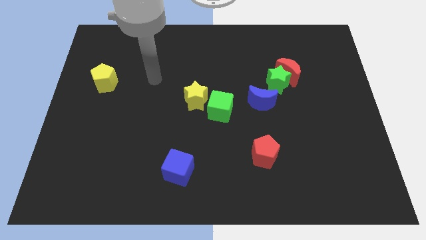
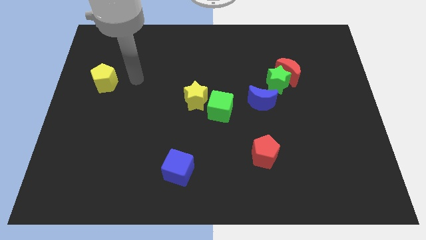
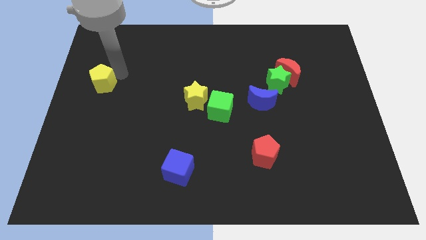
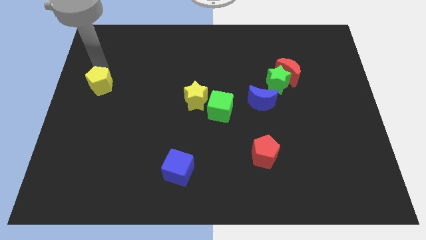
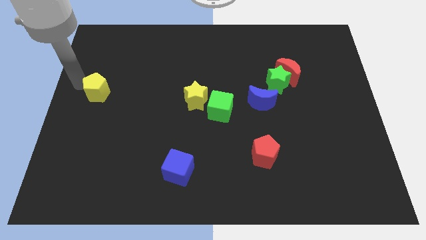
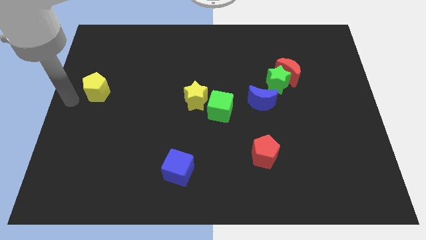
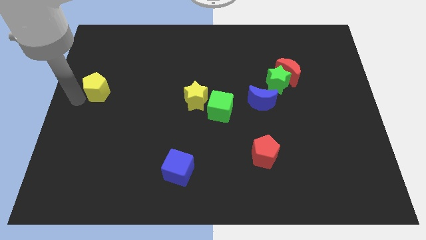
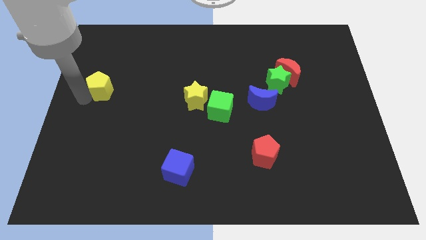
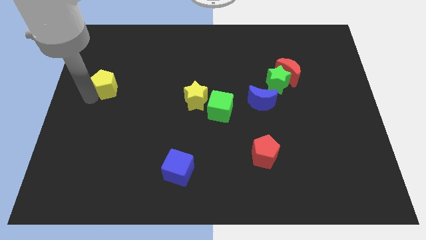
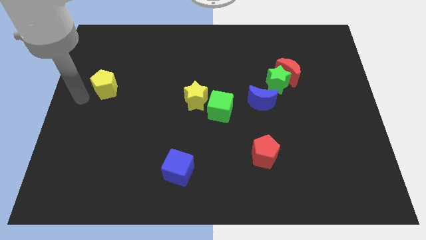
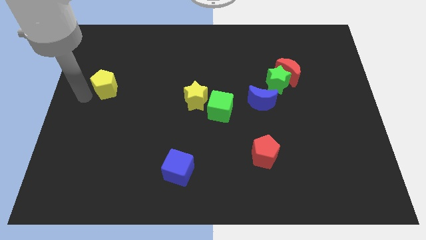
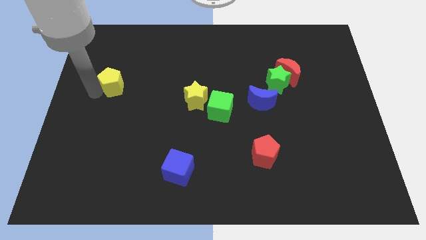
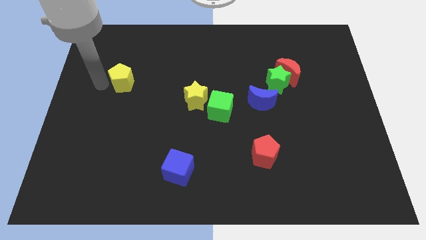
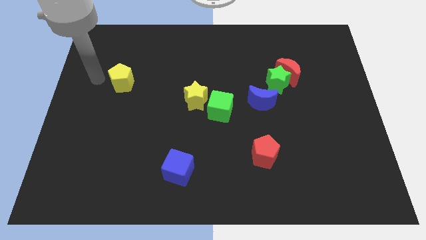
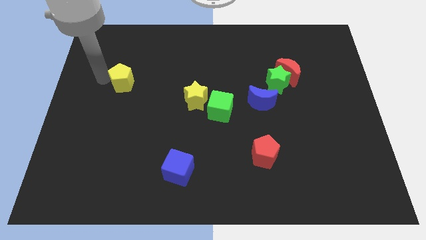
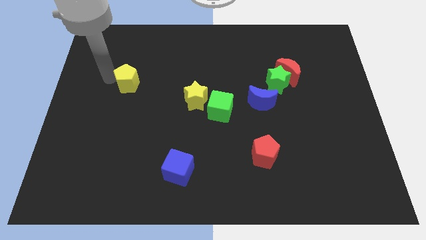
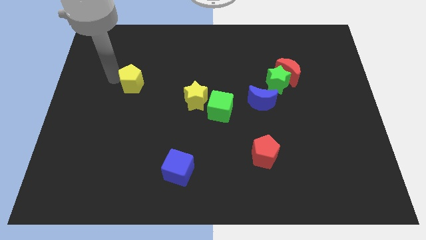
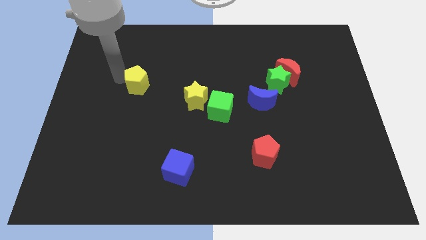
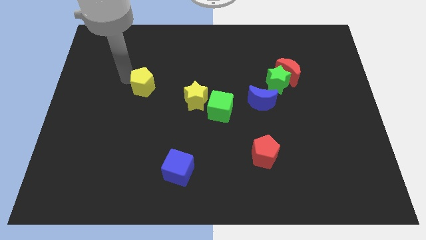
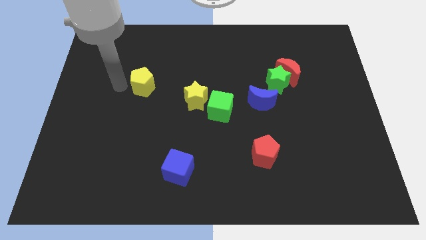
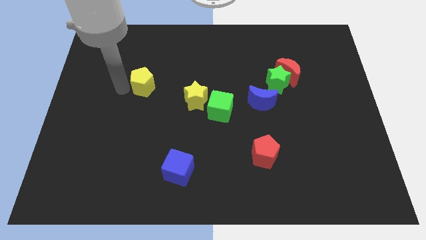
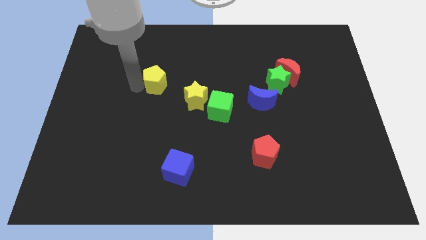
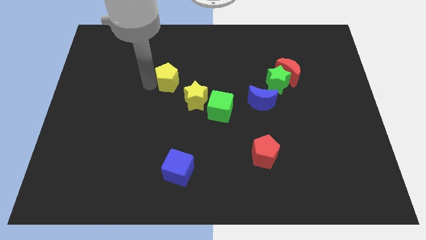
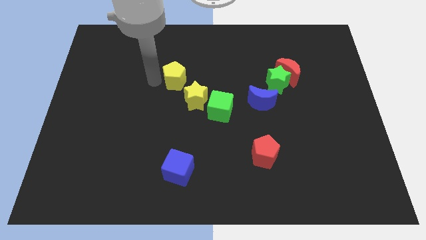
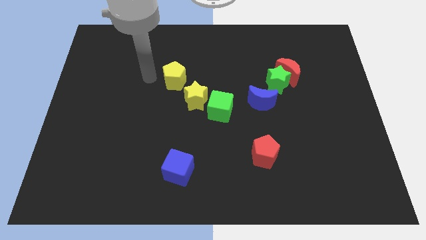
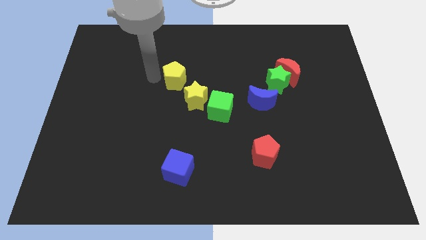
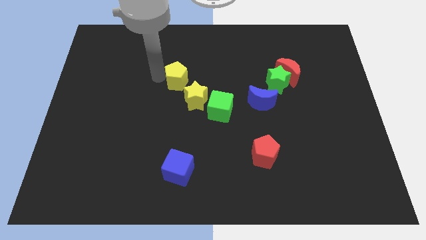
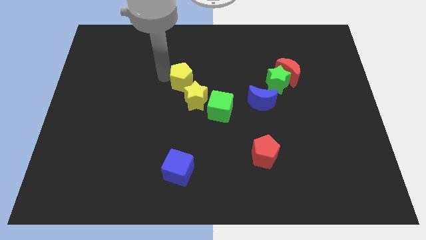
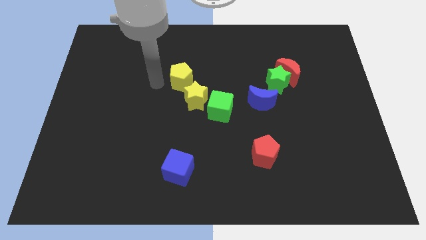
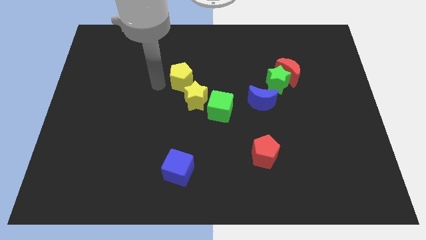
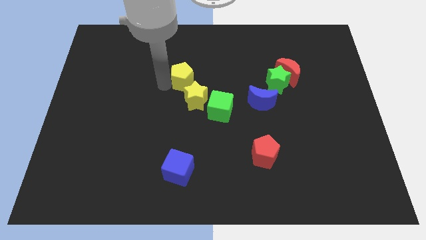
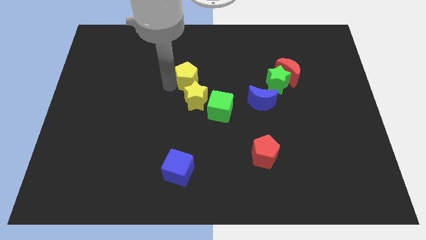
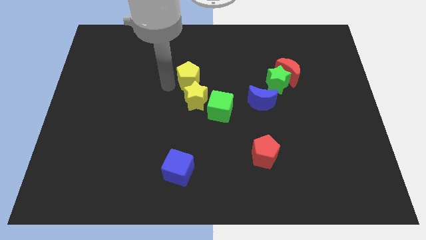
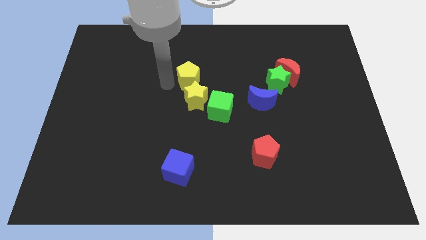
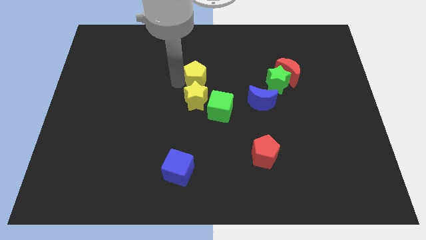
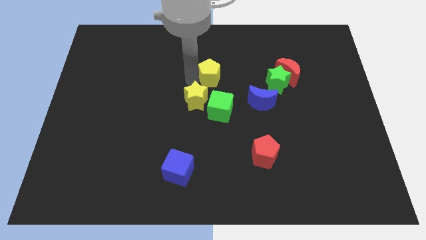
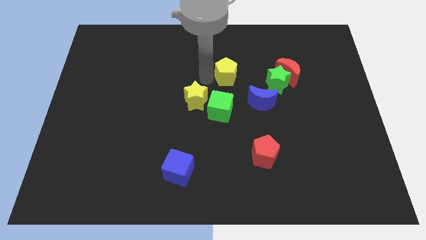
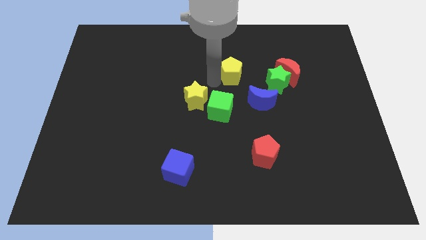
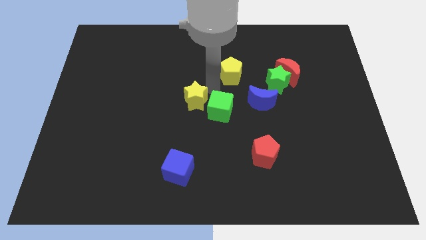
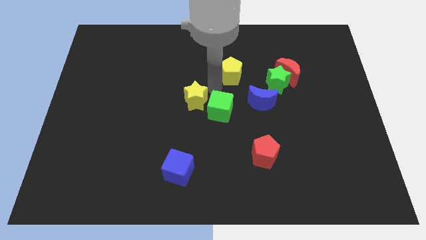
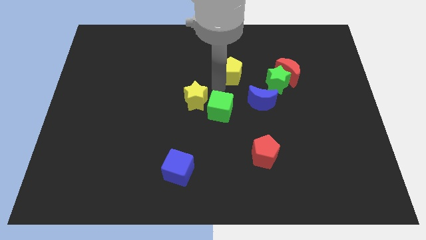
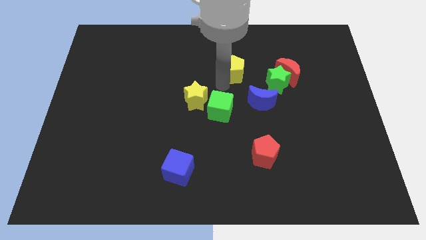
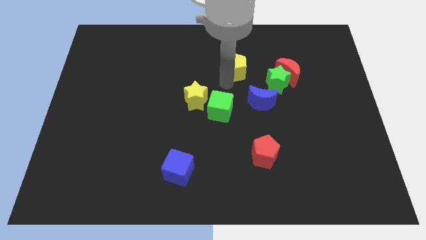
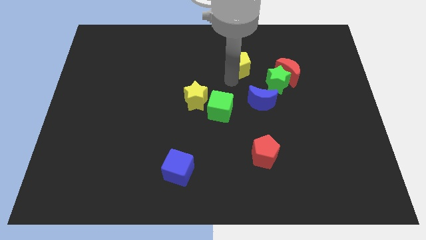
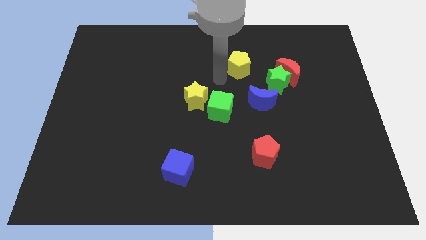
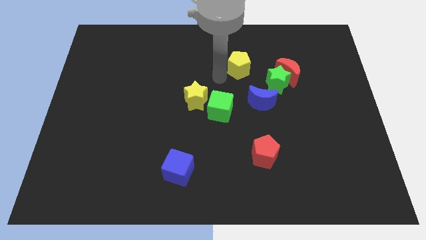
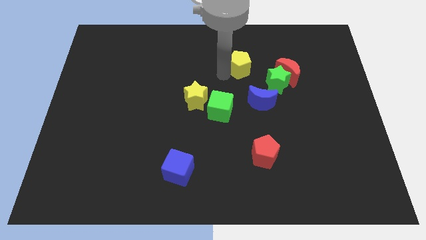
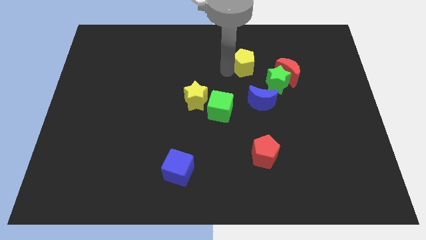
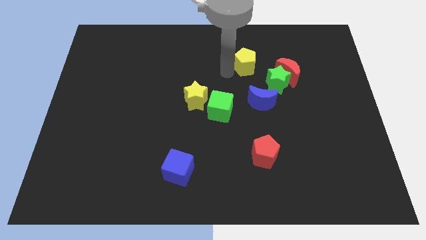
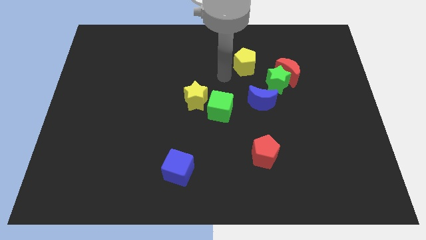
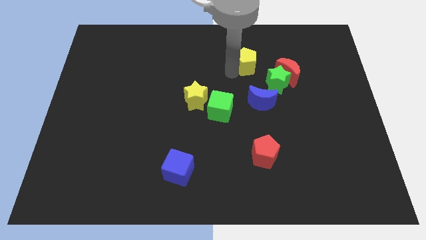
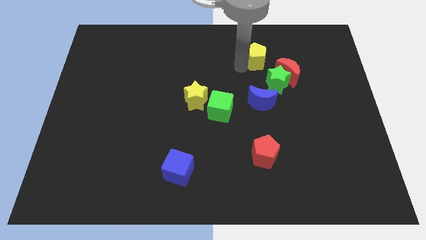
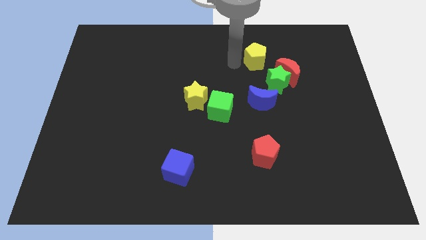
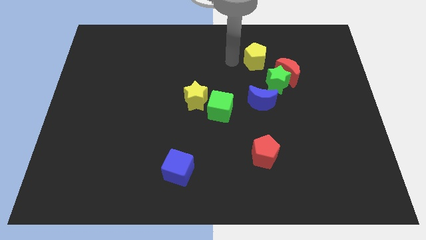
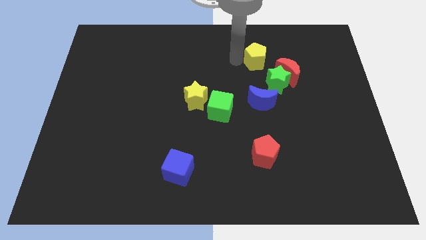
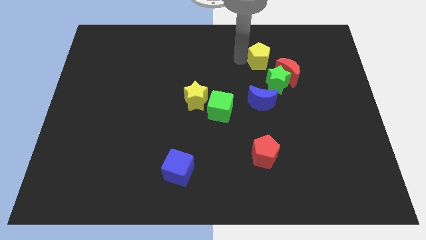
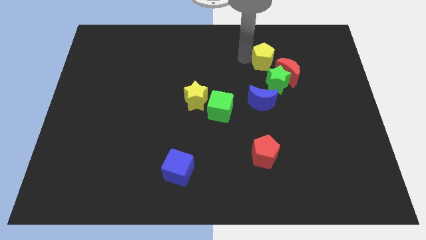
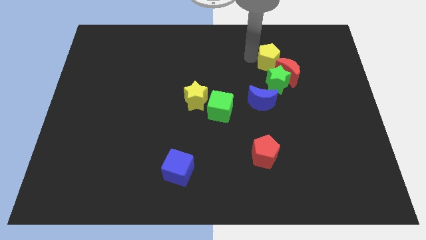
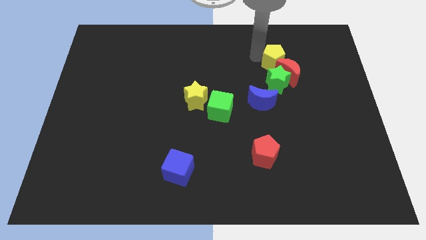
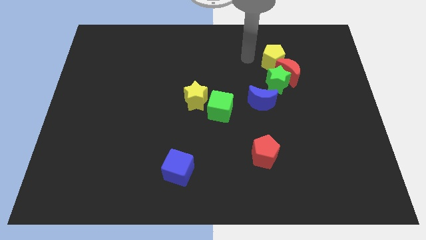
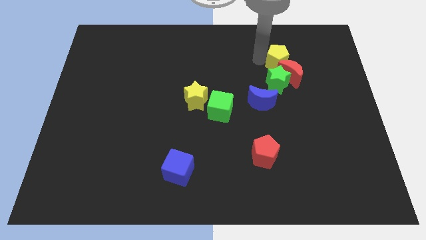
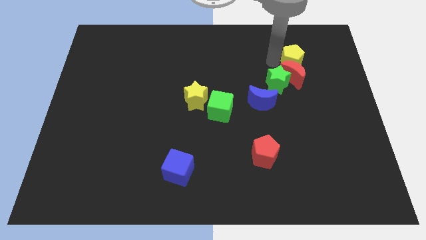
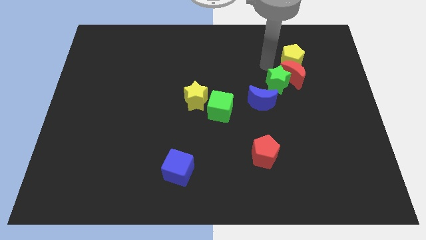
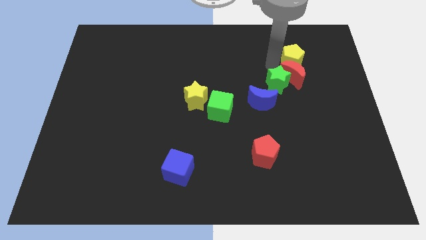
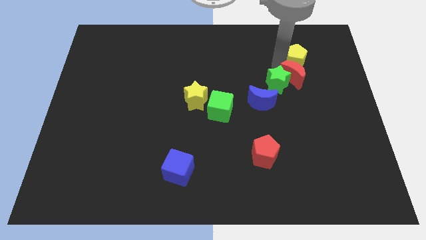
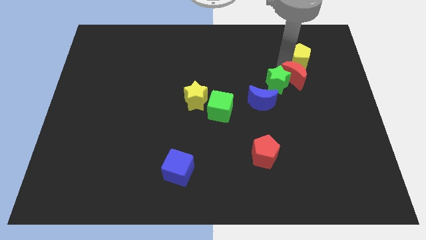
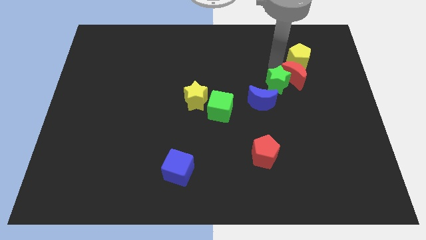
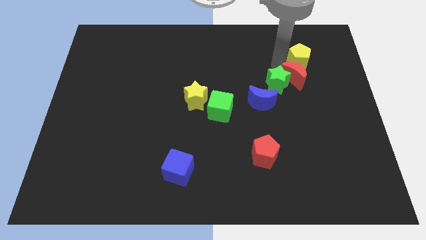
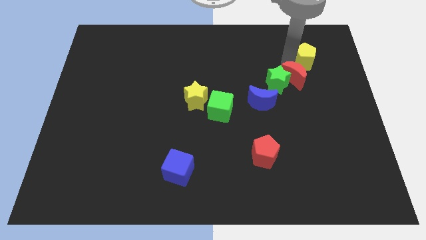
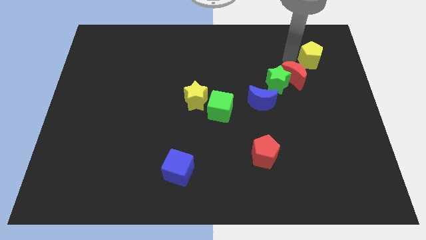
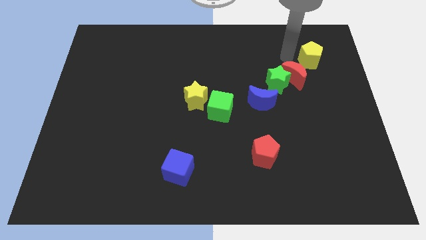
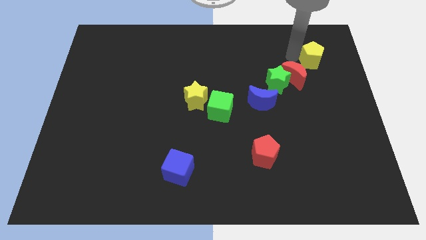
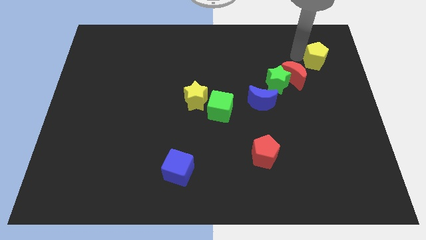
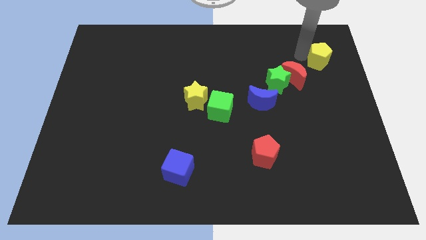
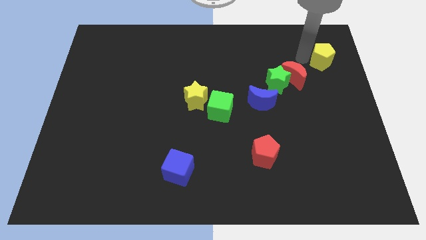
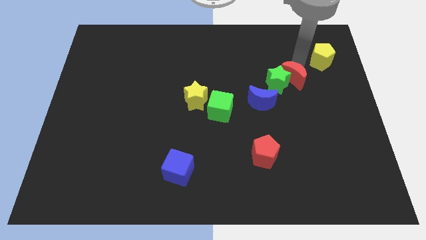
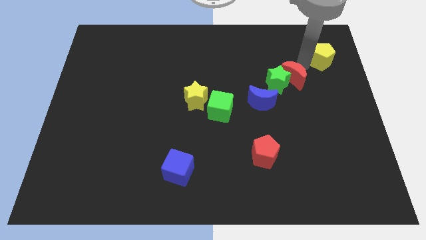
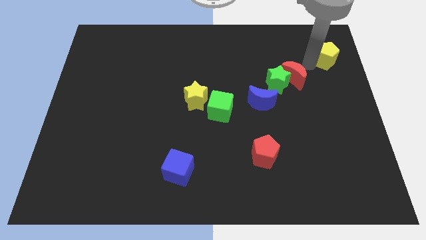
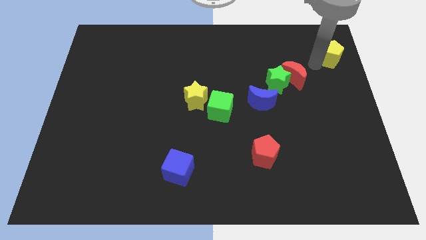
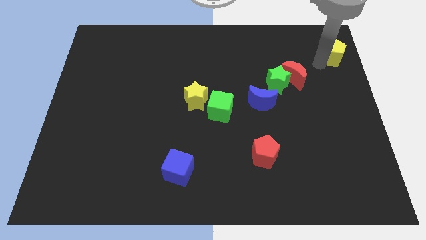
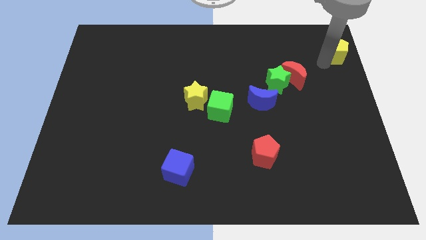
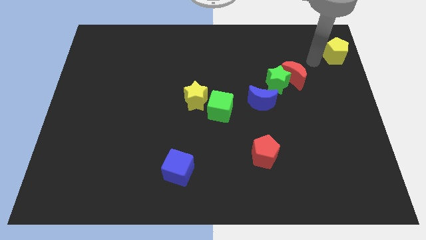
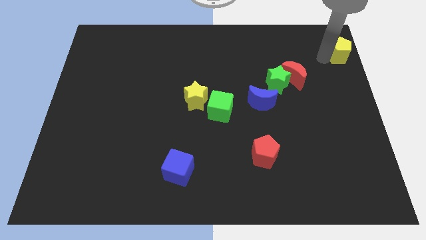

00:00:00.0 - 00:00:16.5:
put the yellow pentagon to the top right of the board
